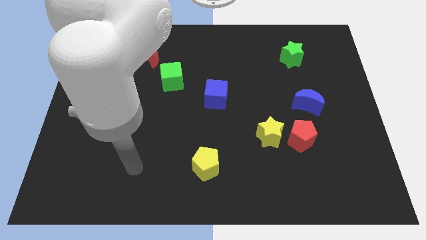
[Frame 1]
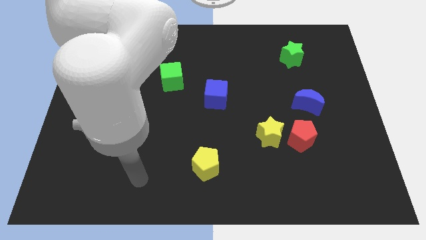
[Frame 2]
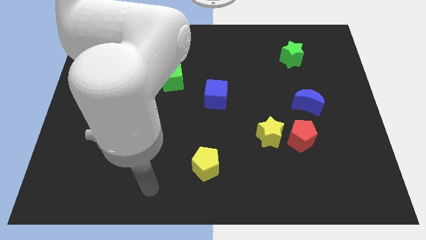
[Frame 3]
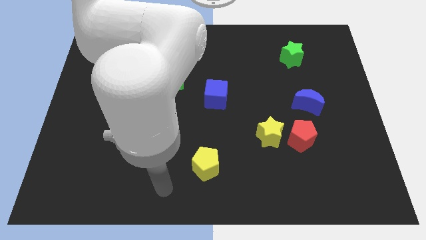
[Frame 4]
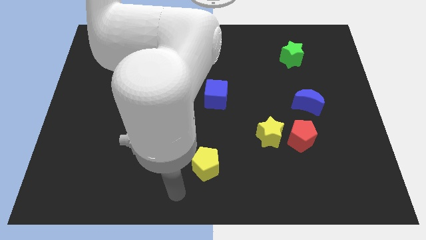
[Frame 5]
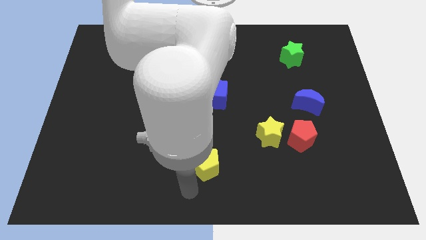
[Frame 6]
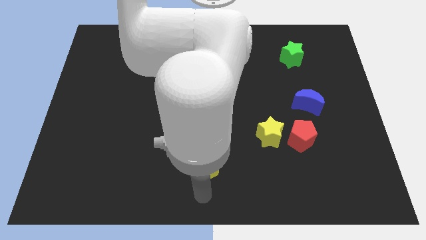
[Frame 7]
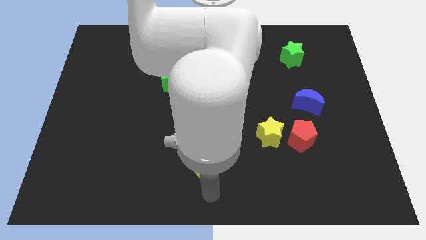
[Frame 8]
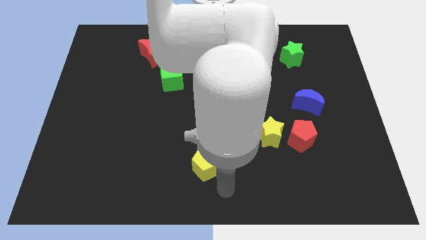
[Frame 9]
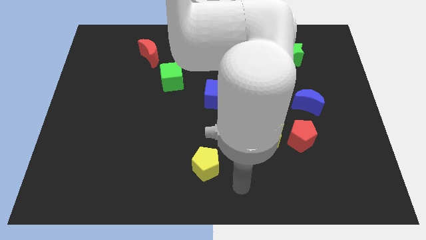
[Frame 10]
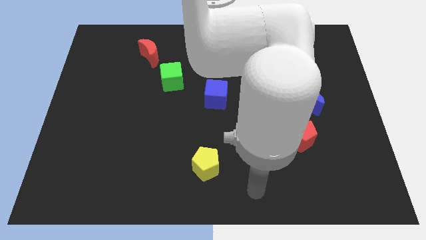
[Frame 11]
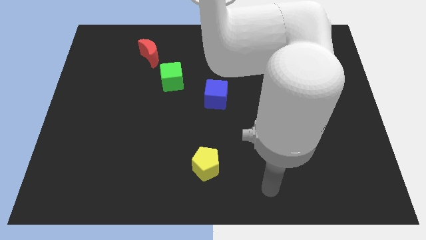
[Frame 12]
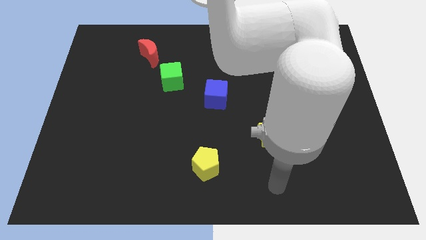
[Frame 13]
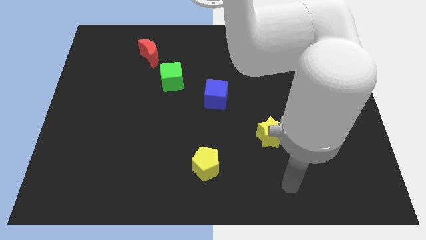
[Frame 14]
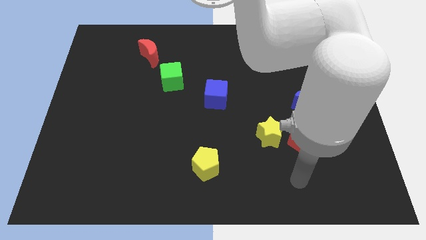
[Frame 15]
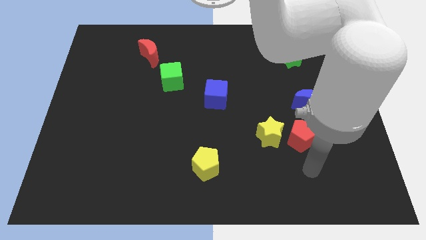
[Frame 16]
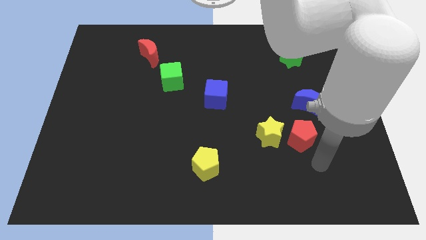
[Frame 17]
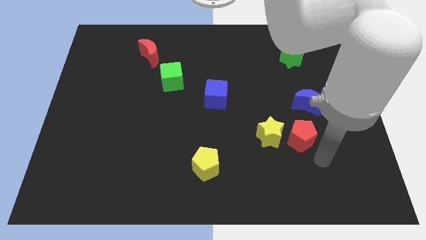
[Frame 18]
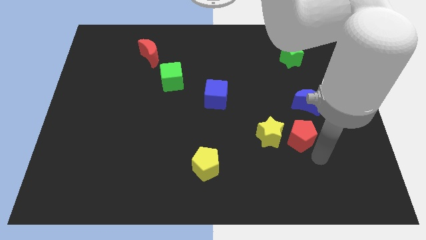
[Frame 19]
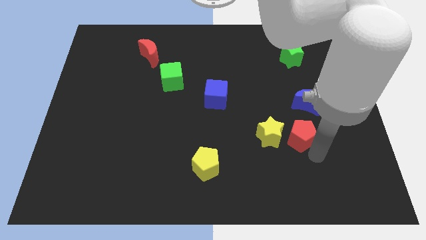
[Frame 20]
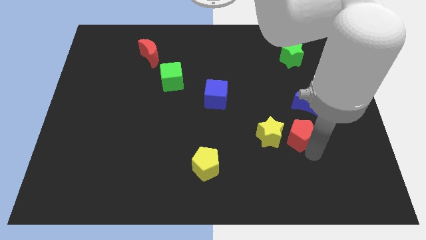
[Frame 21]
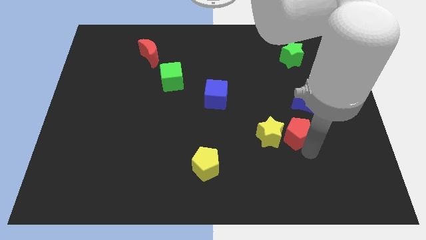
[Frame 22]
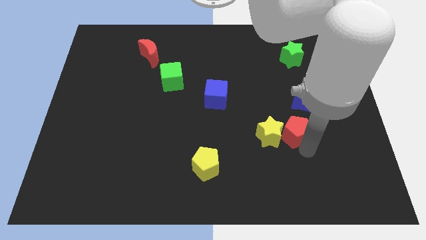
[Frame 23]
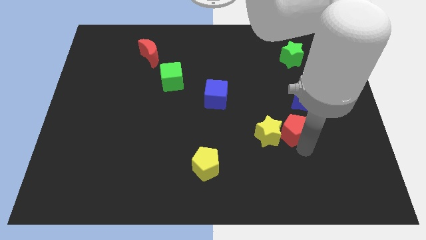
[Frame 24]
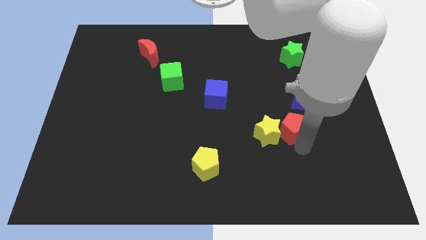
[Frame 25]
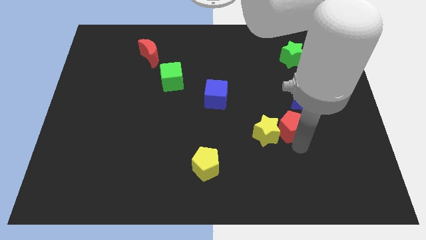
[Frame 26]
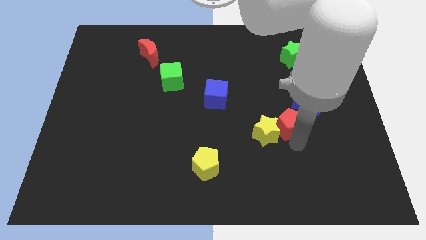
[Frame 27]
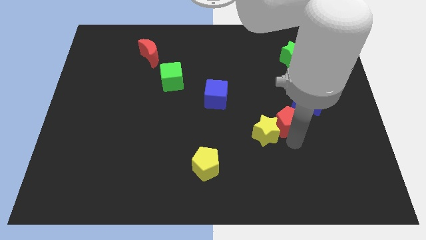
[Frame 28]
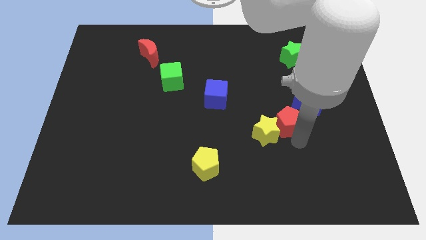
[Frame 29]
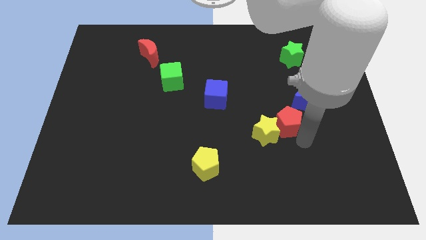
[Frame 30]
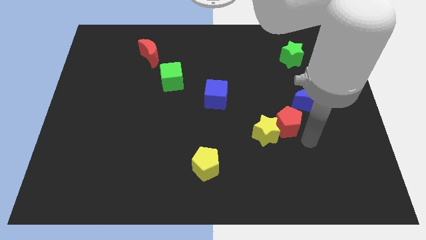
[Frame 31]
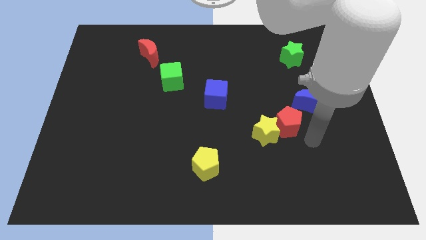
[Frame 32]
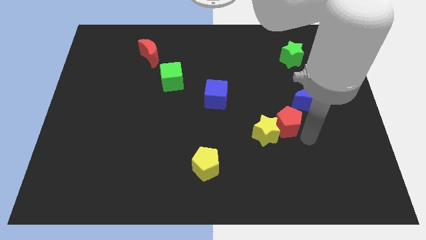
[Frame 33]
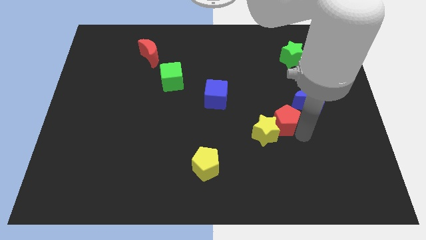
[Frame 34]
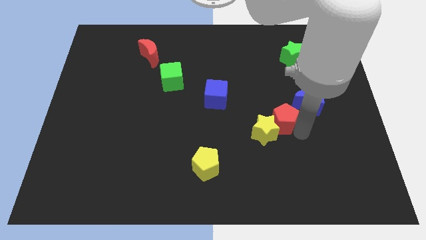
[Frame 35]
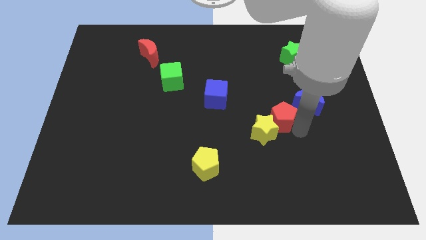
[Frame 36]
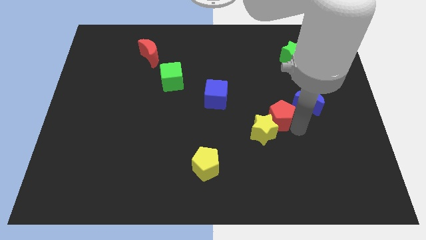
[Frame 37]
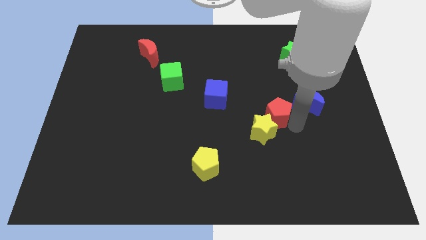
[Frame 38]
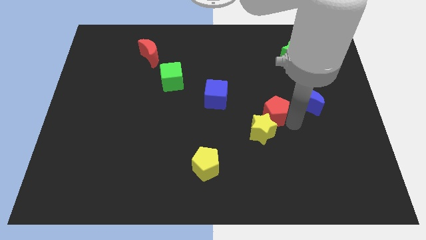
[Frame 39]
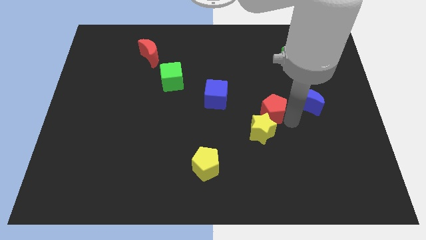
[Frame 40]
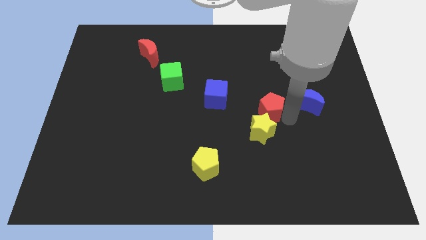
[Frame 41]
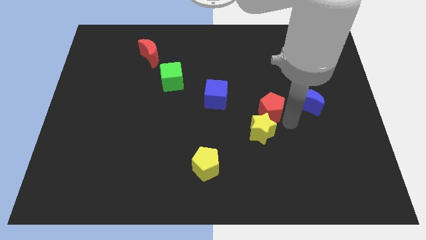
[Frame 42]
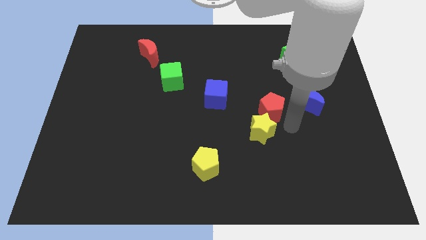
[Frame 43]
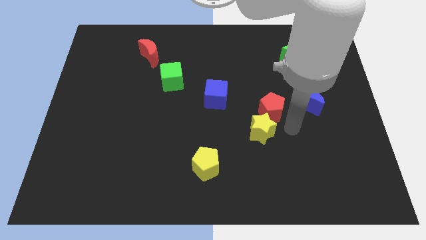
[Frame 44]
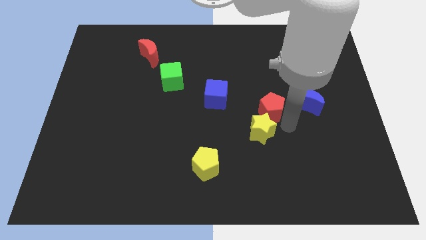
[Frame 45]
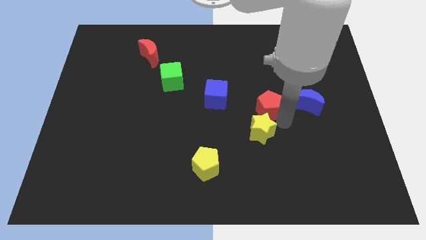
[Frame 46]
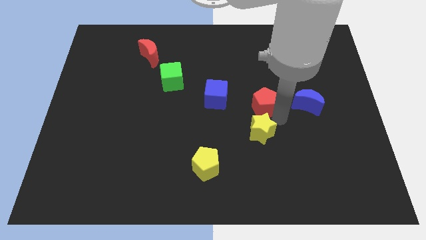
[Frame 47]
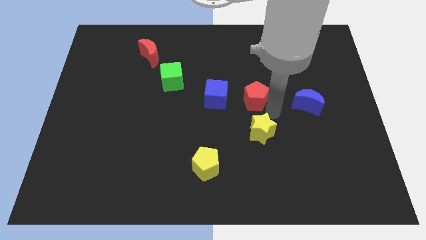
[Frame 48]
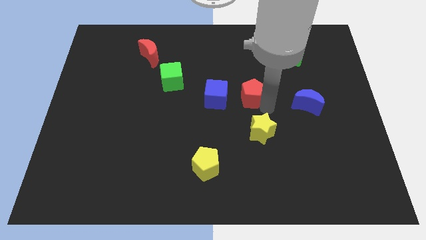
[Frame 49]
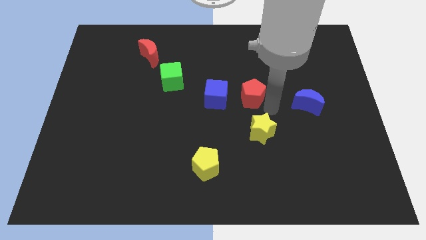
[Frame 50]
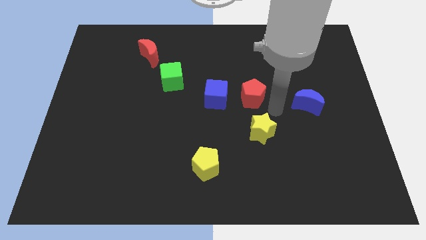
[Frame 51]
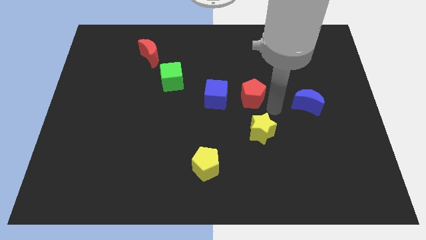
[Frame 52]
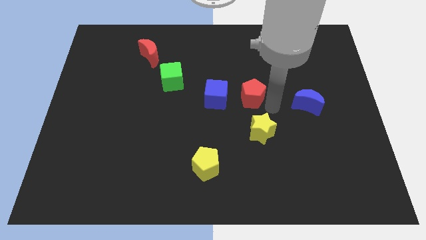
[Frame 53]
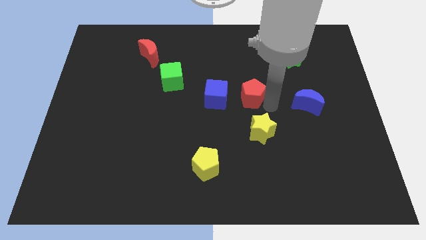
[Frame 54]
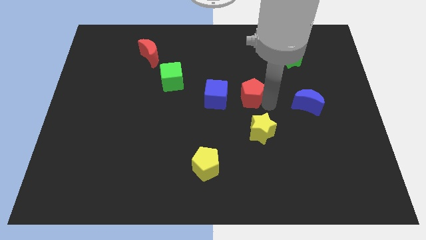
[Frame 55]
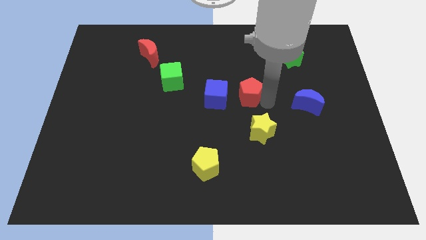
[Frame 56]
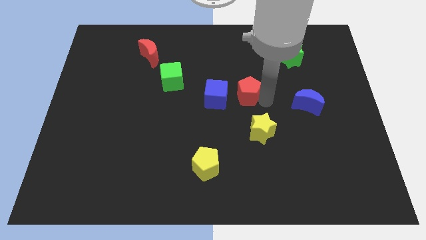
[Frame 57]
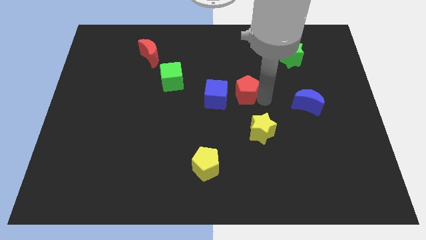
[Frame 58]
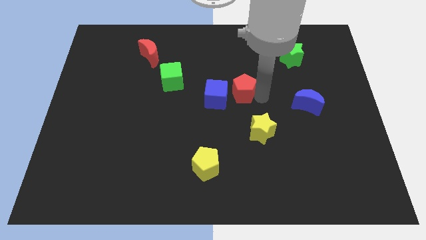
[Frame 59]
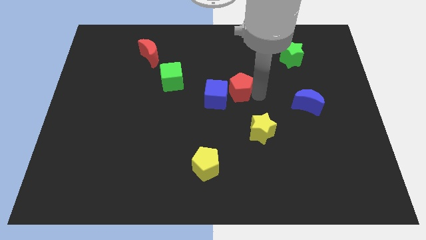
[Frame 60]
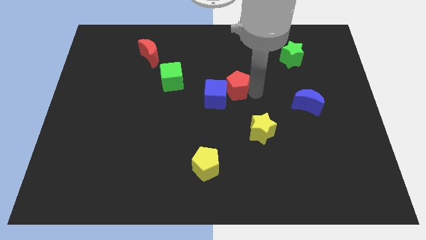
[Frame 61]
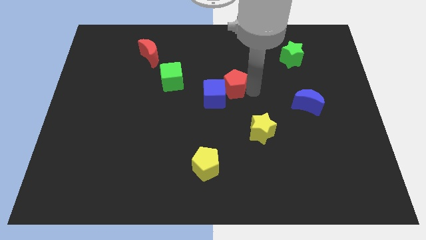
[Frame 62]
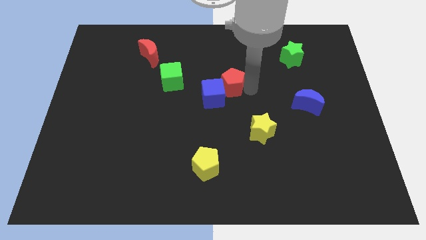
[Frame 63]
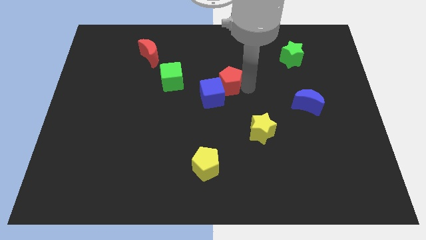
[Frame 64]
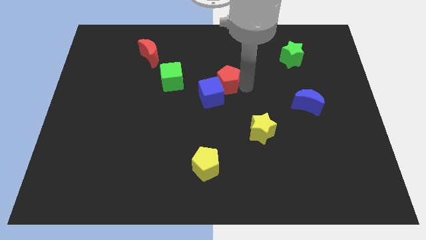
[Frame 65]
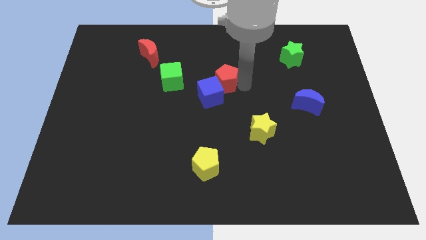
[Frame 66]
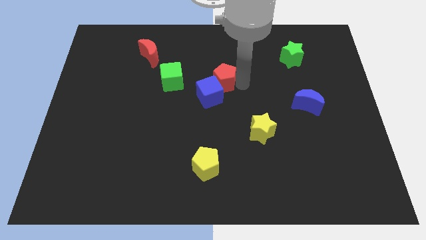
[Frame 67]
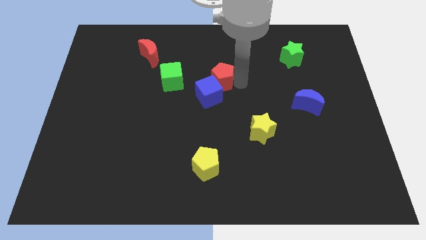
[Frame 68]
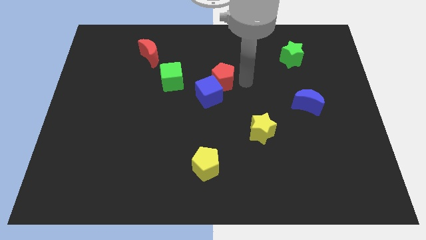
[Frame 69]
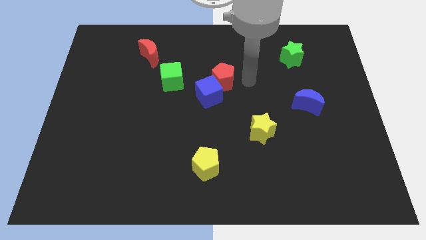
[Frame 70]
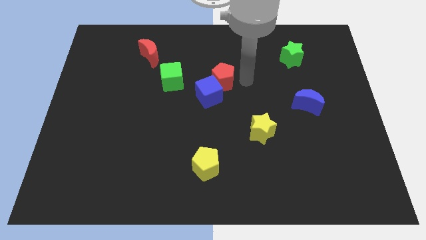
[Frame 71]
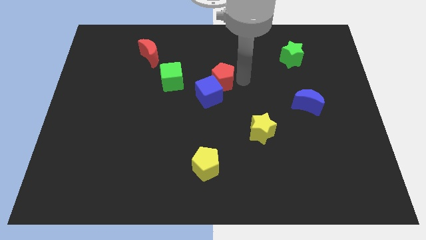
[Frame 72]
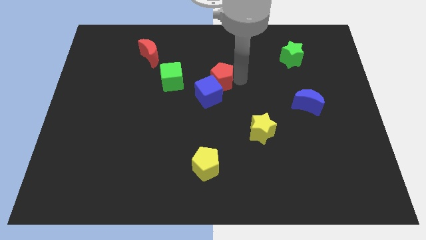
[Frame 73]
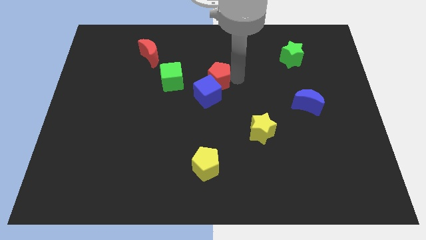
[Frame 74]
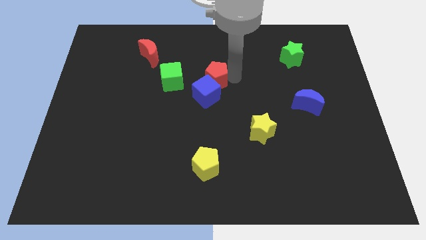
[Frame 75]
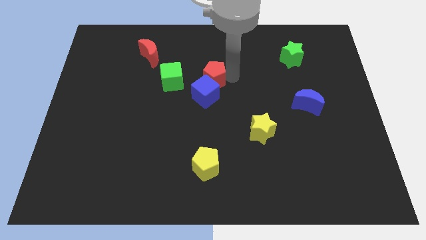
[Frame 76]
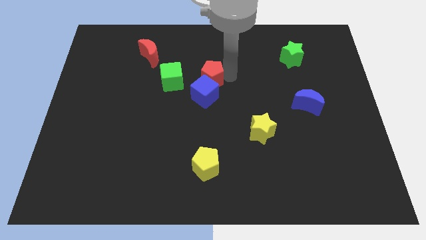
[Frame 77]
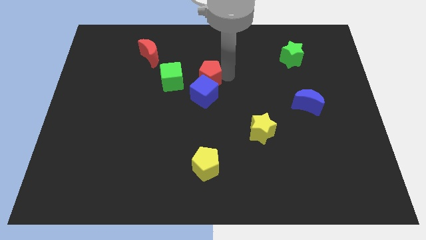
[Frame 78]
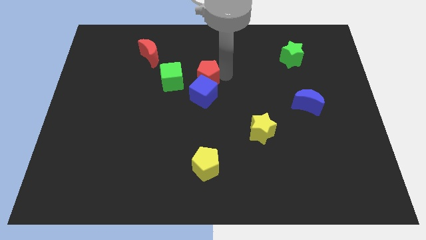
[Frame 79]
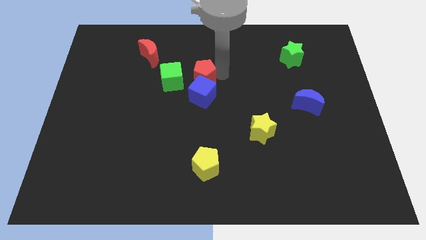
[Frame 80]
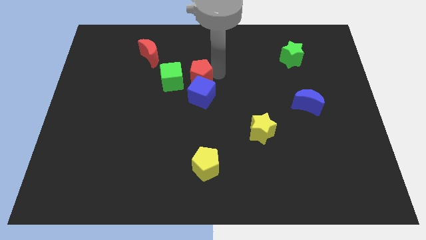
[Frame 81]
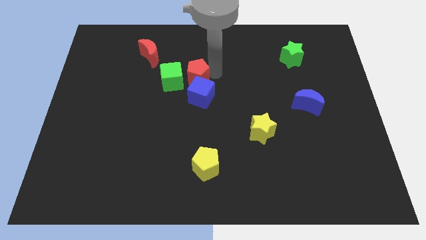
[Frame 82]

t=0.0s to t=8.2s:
slide the red pentagon next to the green cube
